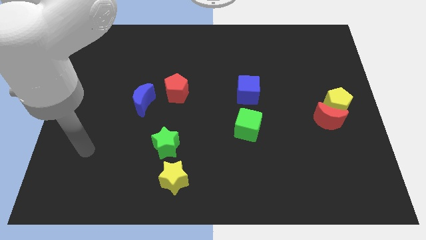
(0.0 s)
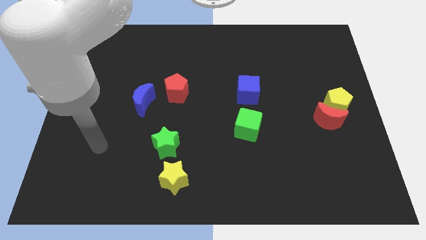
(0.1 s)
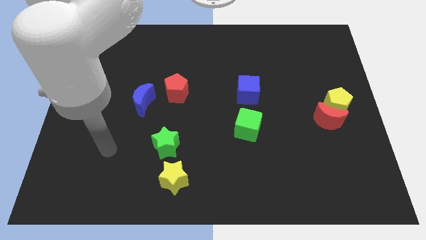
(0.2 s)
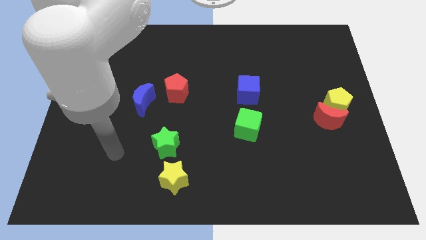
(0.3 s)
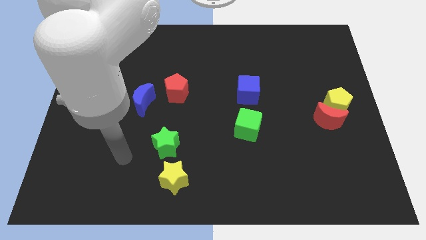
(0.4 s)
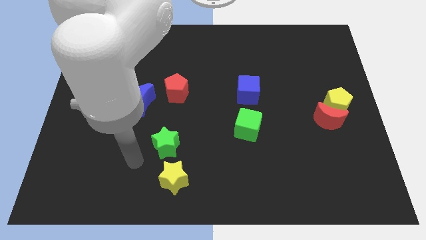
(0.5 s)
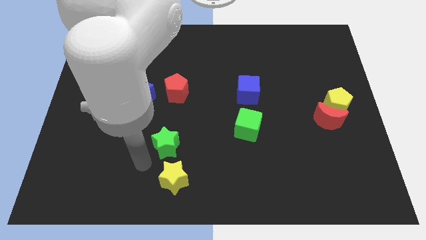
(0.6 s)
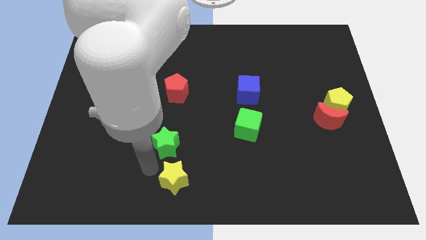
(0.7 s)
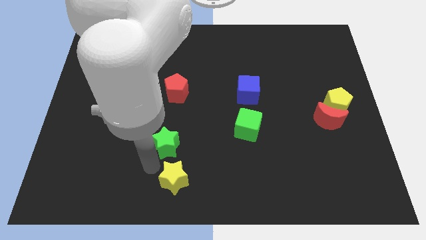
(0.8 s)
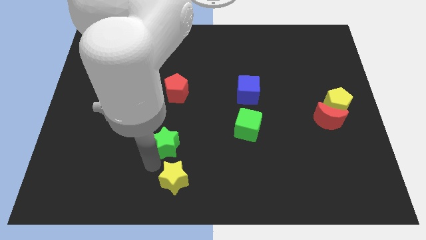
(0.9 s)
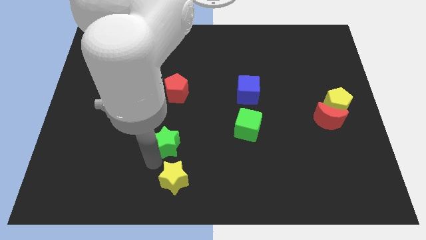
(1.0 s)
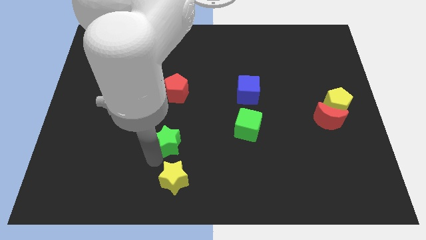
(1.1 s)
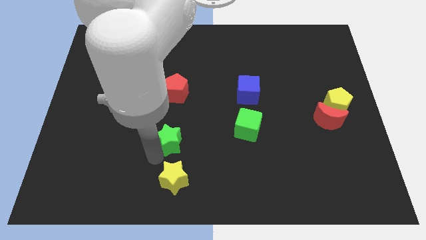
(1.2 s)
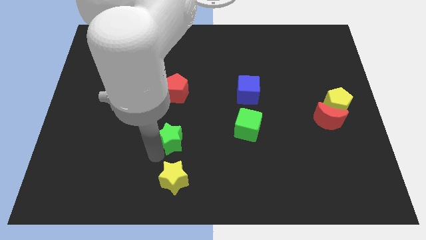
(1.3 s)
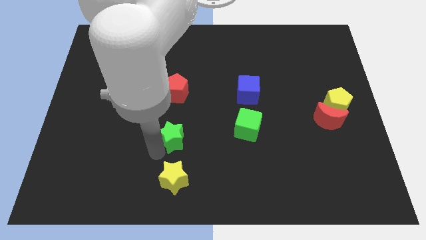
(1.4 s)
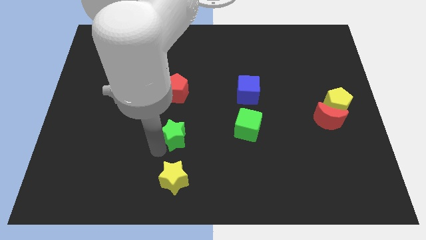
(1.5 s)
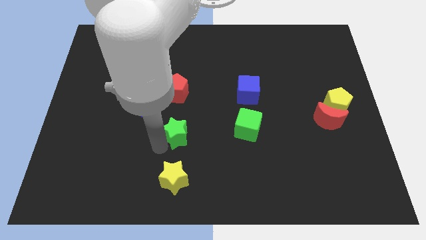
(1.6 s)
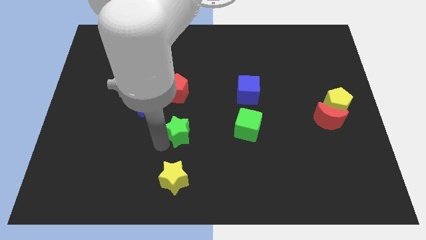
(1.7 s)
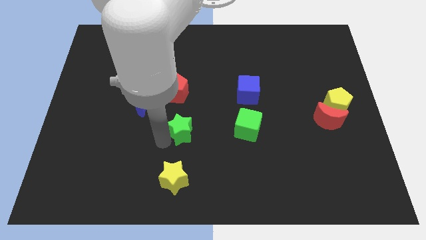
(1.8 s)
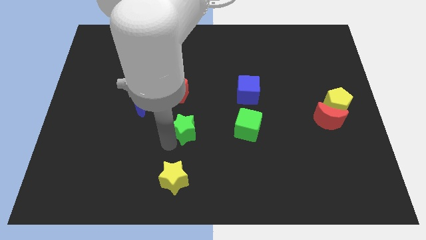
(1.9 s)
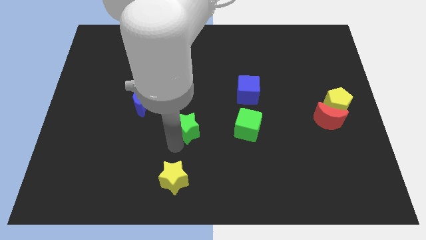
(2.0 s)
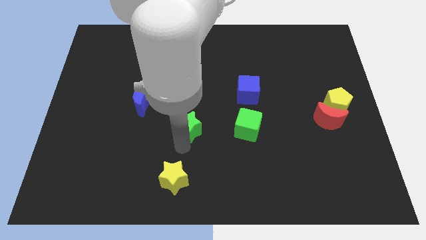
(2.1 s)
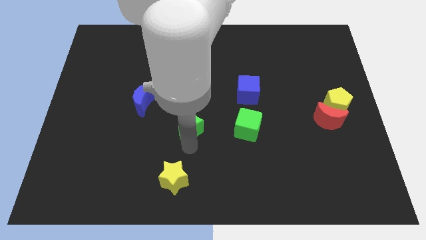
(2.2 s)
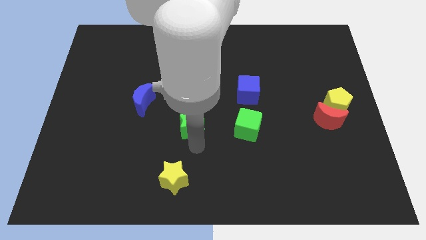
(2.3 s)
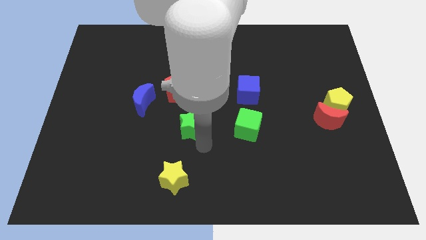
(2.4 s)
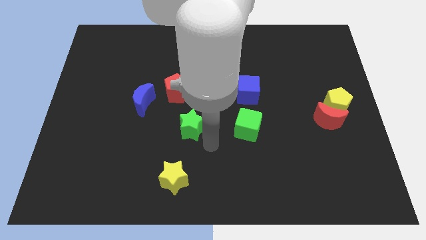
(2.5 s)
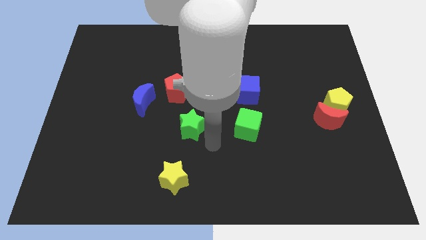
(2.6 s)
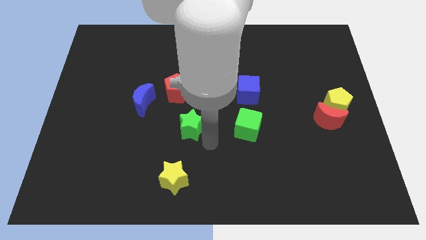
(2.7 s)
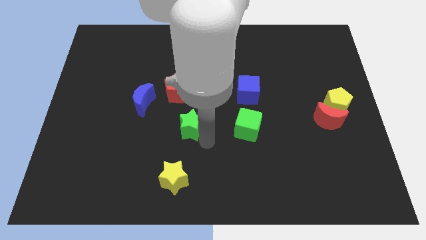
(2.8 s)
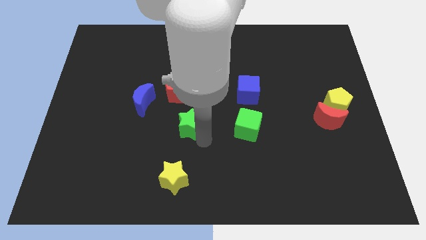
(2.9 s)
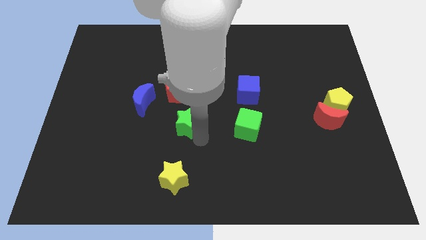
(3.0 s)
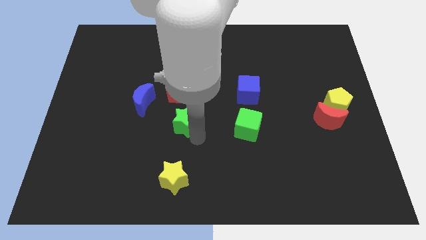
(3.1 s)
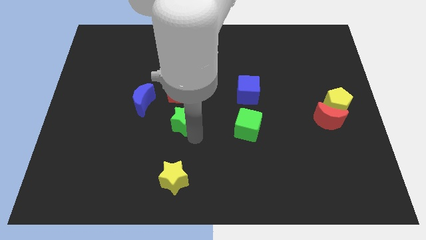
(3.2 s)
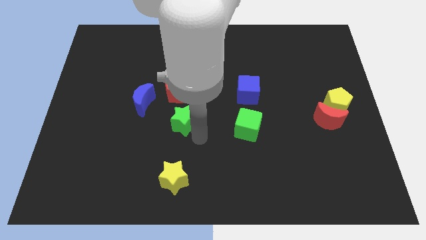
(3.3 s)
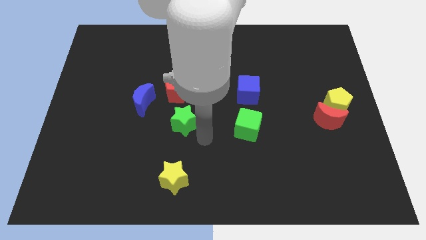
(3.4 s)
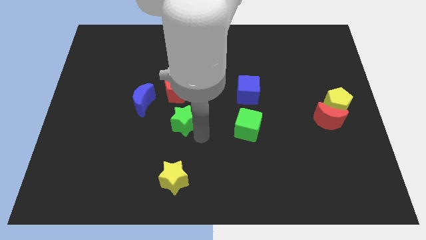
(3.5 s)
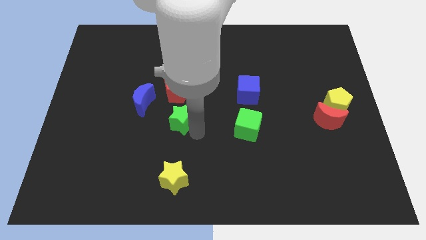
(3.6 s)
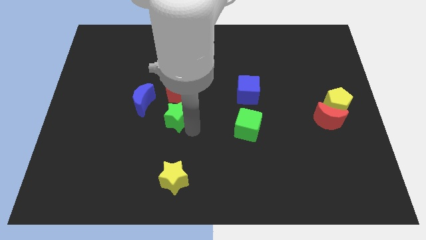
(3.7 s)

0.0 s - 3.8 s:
push the green star a little up

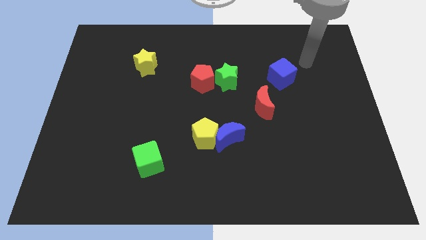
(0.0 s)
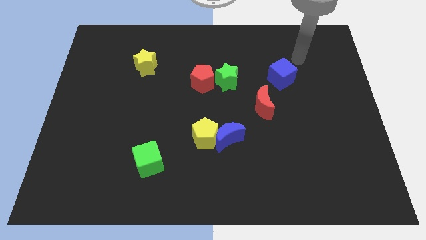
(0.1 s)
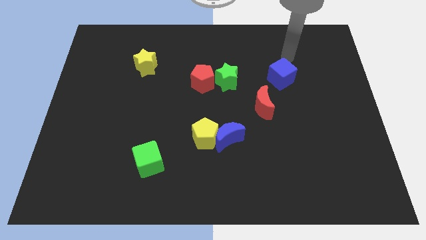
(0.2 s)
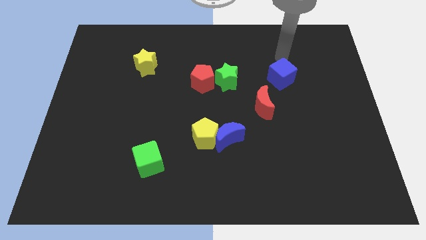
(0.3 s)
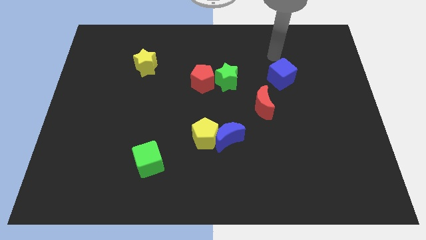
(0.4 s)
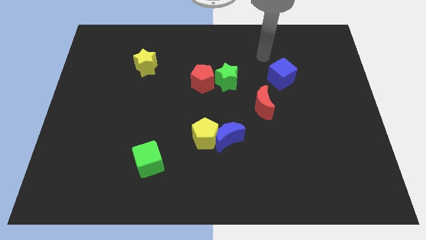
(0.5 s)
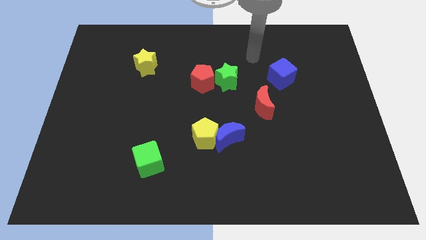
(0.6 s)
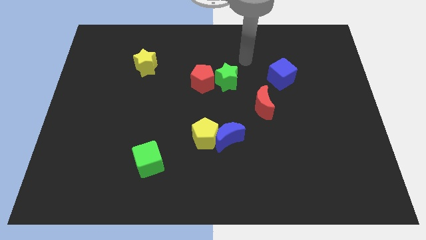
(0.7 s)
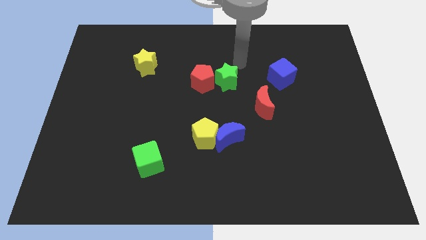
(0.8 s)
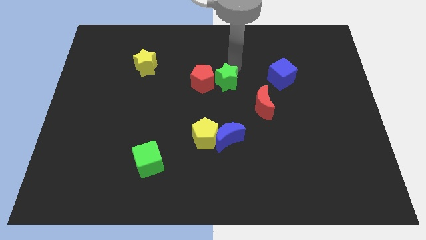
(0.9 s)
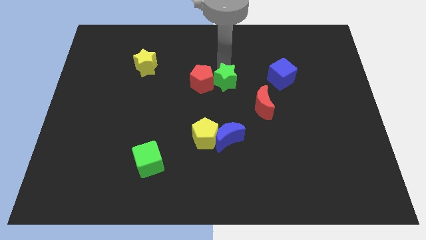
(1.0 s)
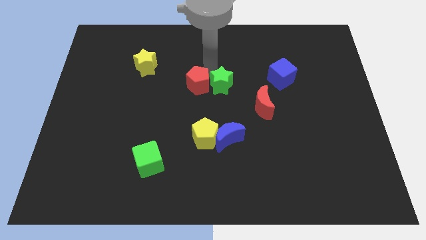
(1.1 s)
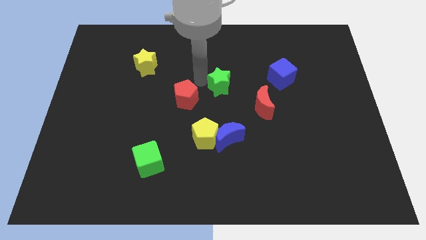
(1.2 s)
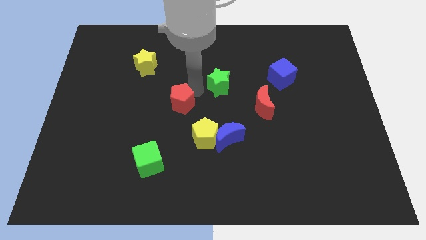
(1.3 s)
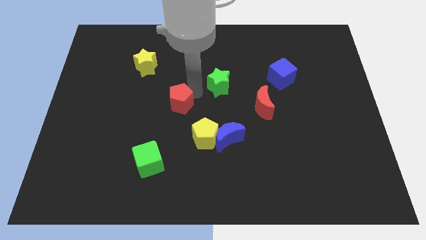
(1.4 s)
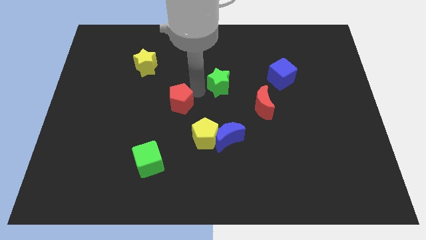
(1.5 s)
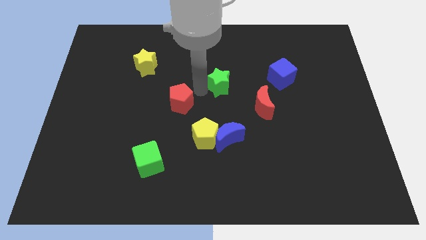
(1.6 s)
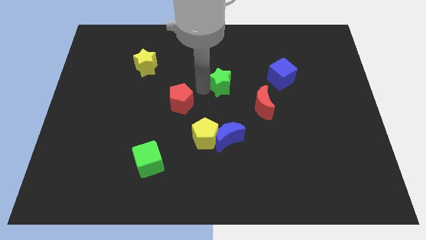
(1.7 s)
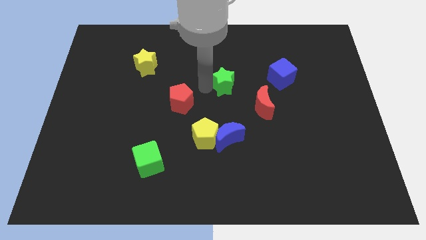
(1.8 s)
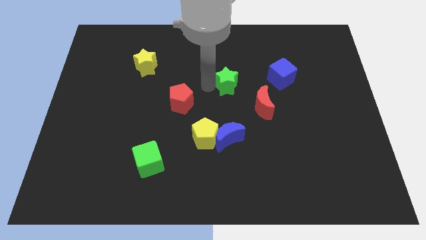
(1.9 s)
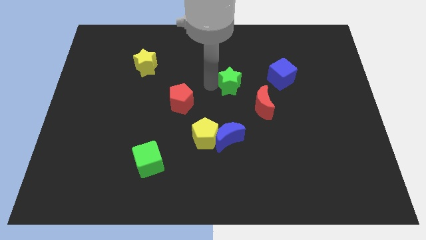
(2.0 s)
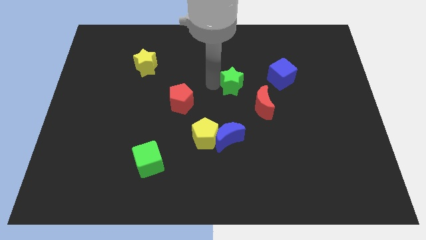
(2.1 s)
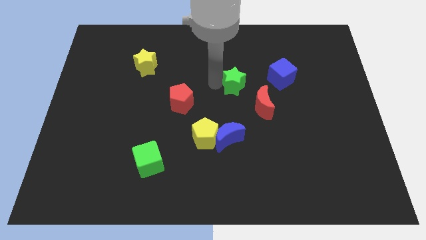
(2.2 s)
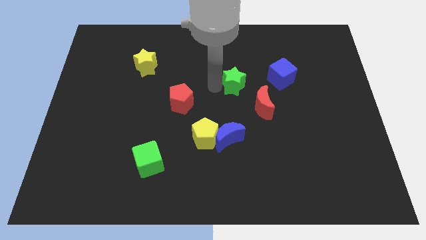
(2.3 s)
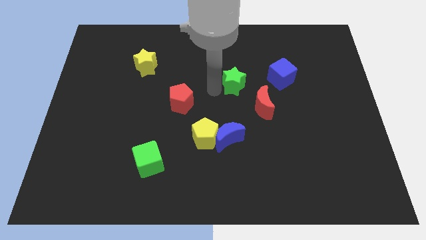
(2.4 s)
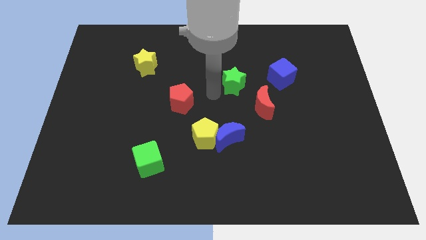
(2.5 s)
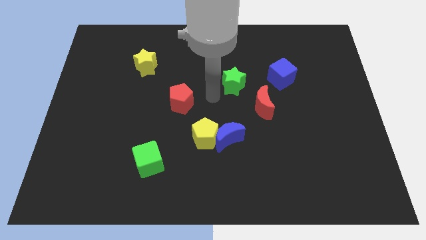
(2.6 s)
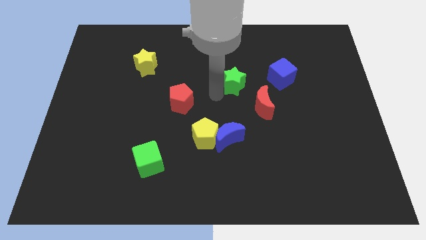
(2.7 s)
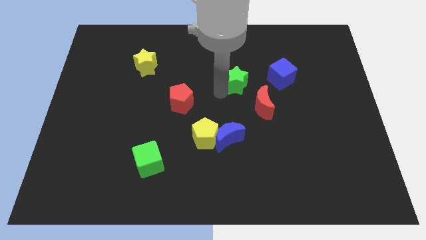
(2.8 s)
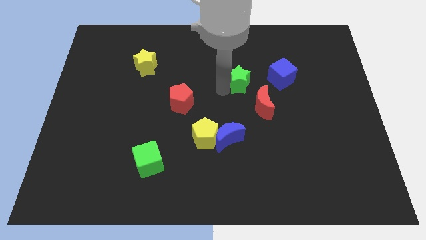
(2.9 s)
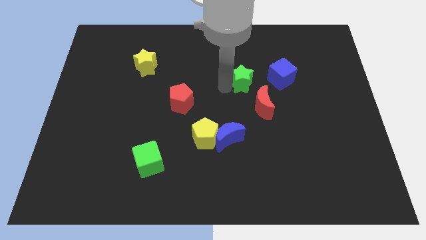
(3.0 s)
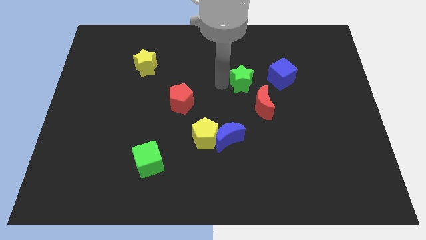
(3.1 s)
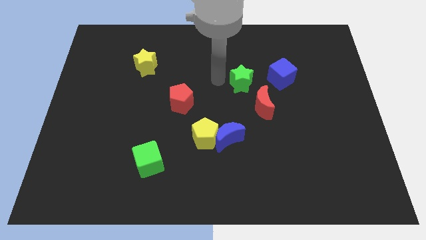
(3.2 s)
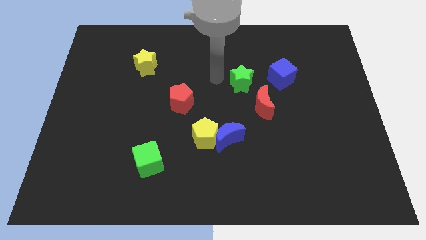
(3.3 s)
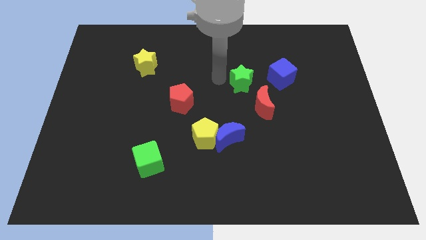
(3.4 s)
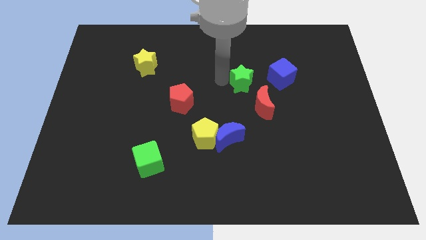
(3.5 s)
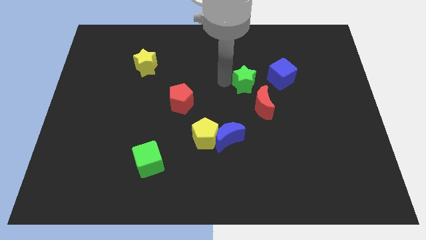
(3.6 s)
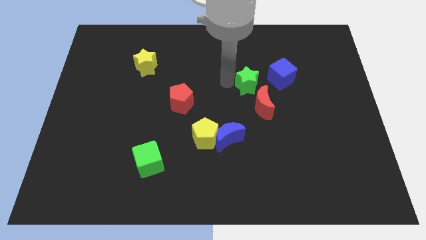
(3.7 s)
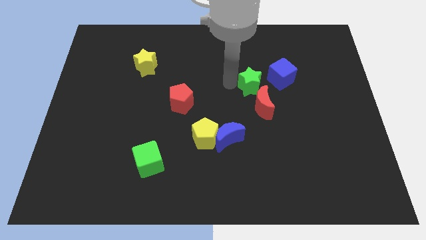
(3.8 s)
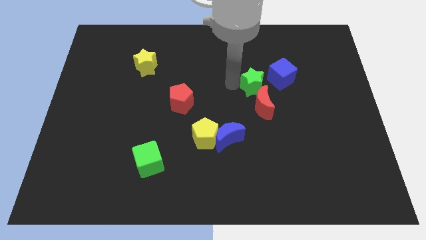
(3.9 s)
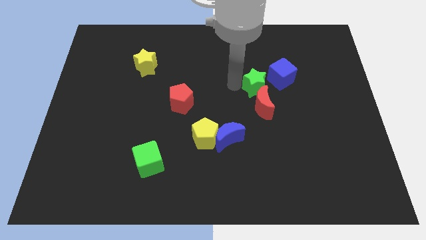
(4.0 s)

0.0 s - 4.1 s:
slightly move the green star to the right

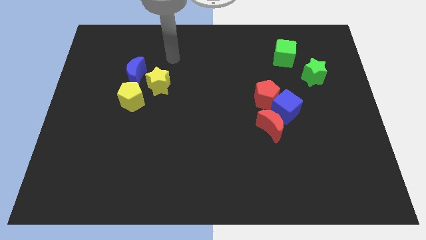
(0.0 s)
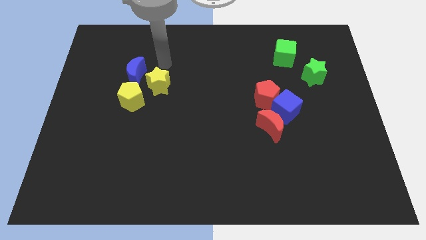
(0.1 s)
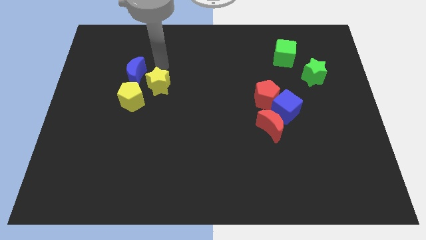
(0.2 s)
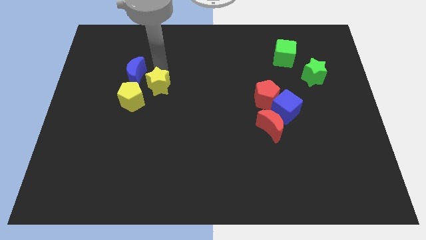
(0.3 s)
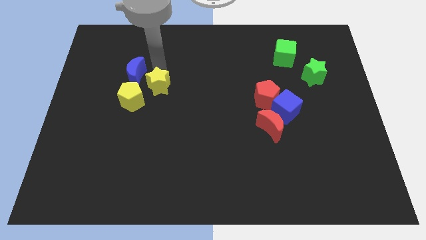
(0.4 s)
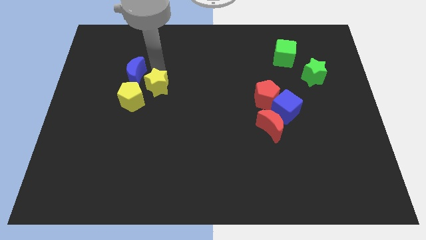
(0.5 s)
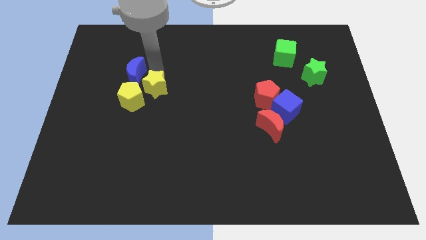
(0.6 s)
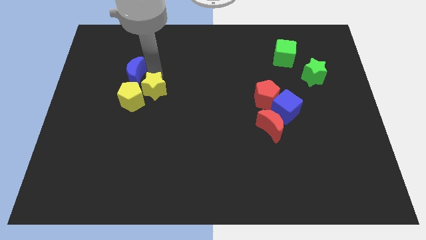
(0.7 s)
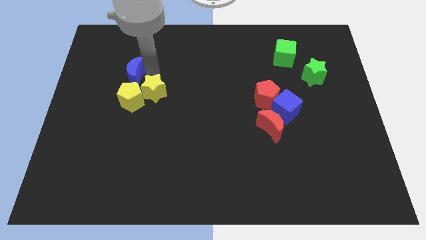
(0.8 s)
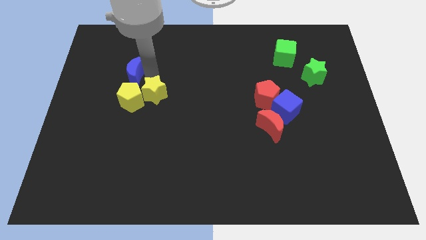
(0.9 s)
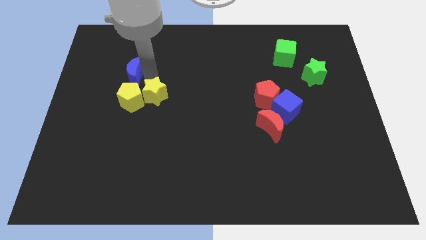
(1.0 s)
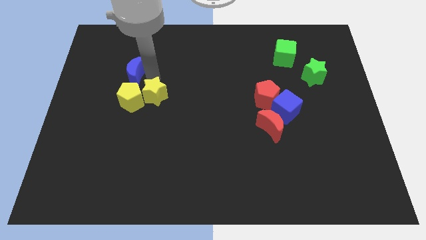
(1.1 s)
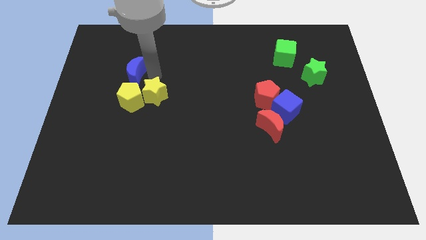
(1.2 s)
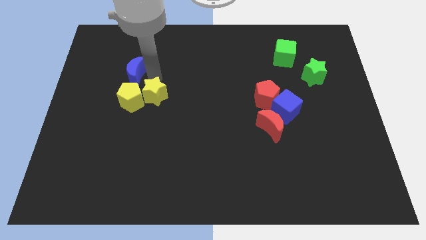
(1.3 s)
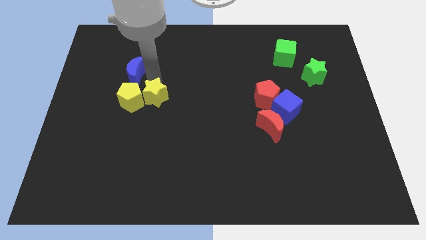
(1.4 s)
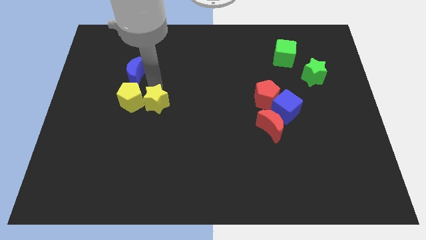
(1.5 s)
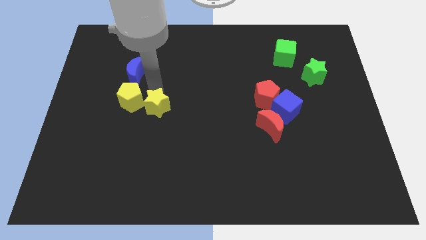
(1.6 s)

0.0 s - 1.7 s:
slide the yellow star downwards a bit
